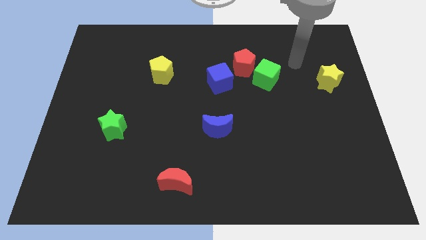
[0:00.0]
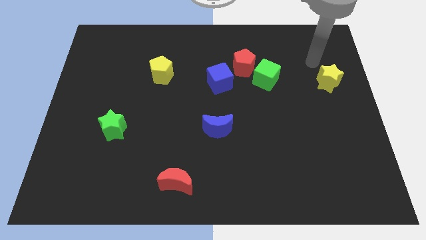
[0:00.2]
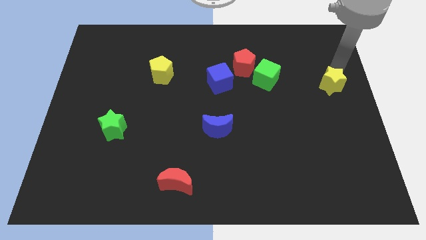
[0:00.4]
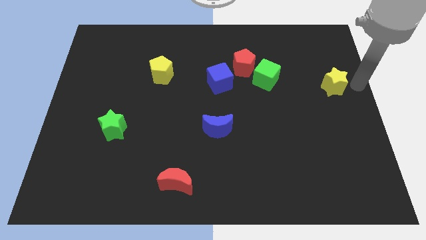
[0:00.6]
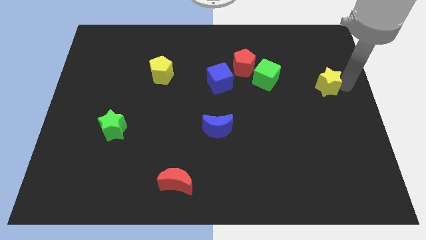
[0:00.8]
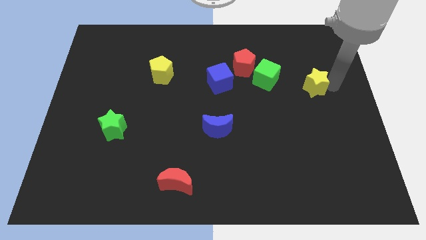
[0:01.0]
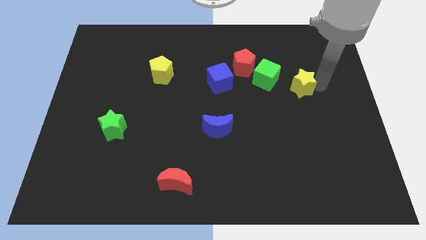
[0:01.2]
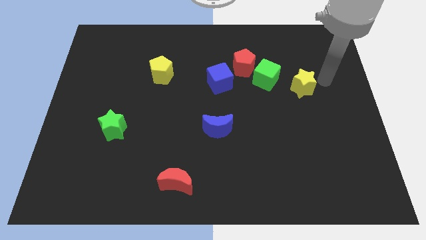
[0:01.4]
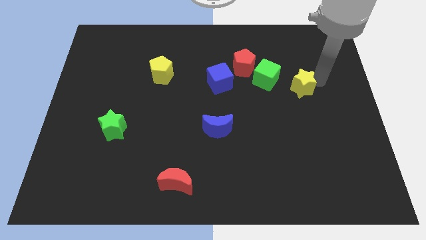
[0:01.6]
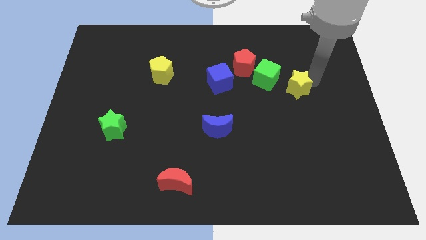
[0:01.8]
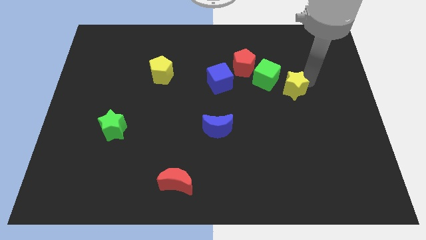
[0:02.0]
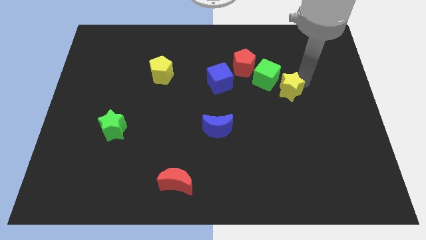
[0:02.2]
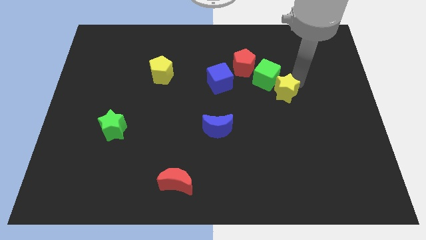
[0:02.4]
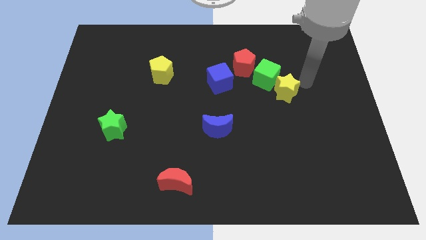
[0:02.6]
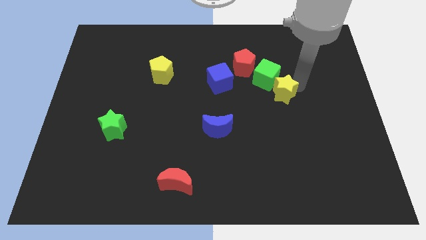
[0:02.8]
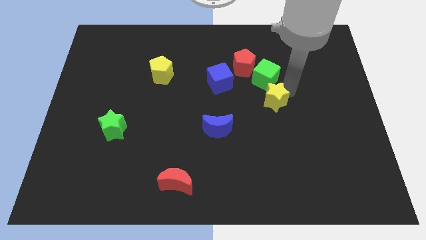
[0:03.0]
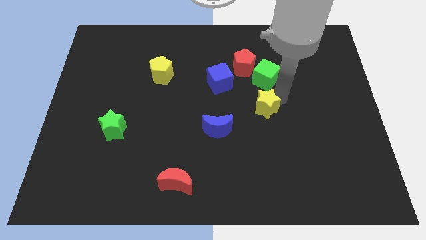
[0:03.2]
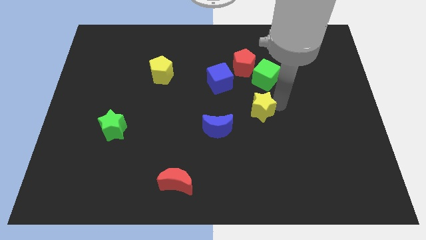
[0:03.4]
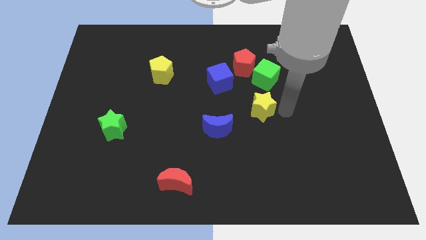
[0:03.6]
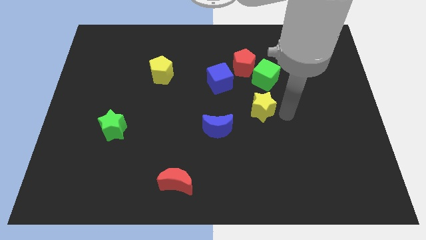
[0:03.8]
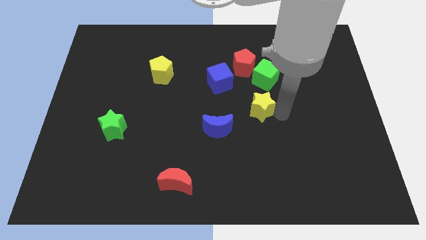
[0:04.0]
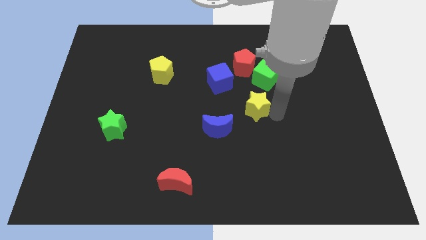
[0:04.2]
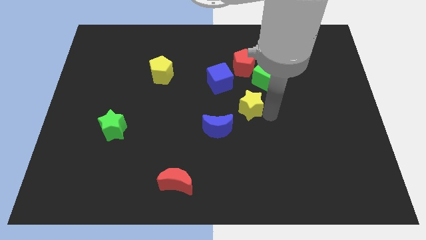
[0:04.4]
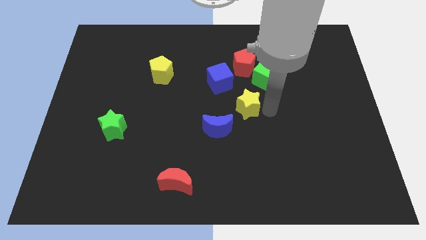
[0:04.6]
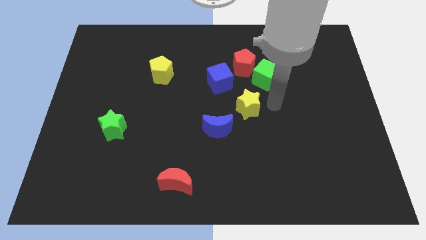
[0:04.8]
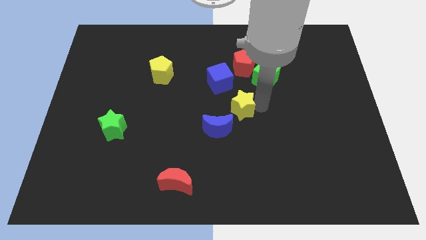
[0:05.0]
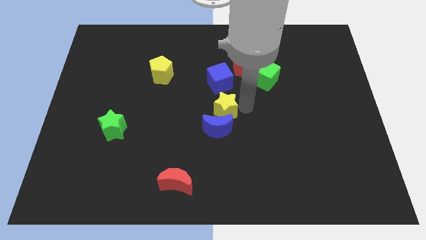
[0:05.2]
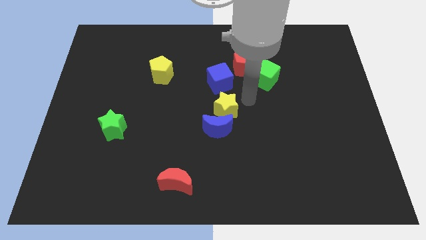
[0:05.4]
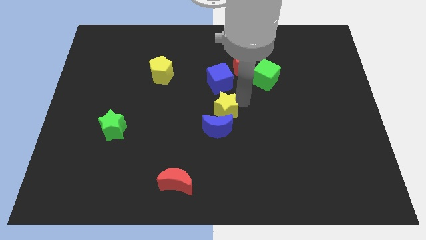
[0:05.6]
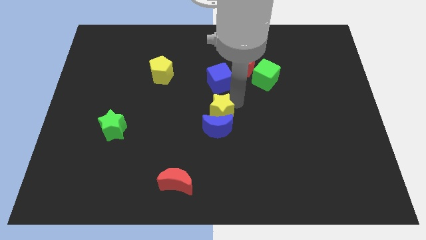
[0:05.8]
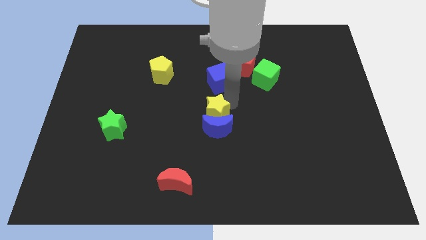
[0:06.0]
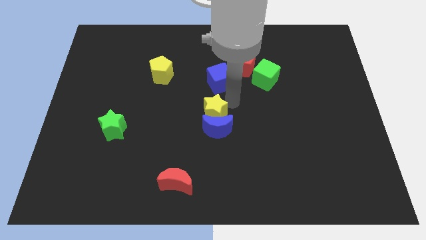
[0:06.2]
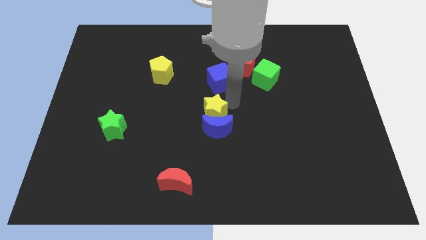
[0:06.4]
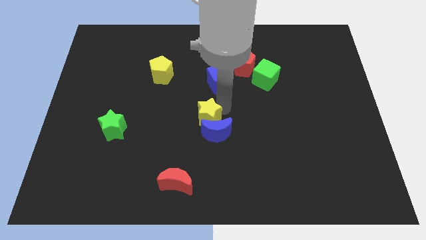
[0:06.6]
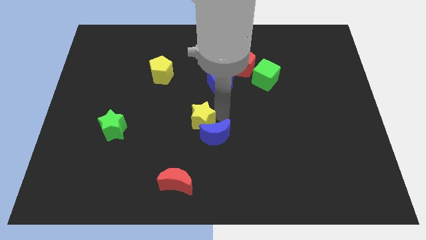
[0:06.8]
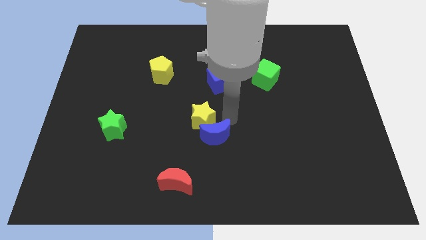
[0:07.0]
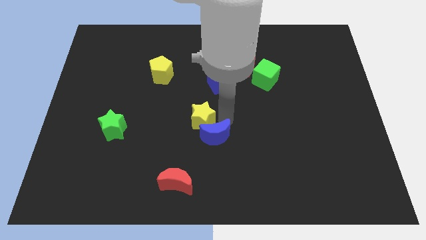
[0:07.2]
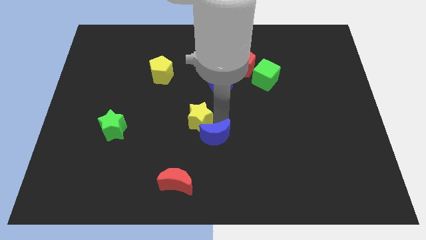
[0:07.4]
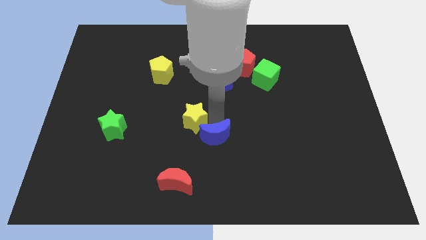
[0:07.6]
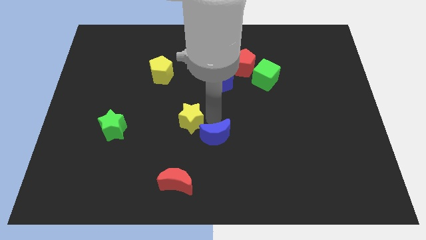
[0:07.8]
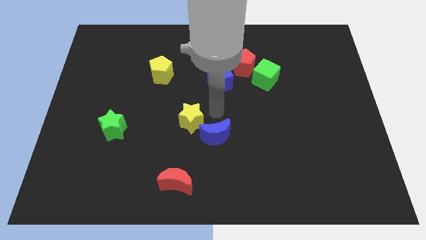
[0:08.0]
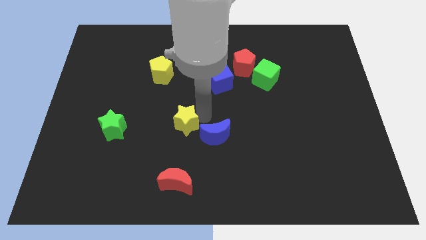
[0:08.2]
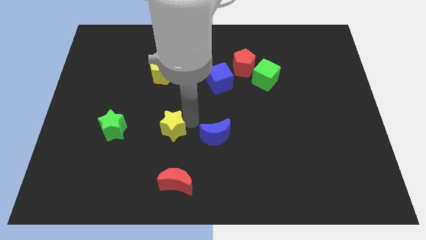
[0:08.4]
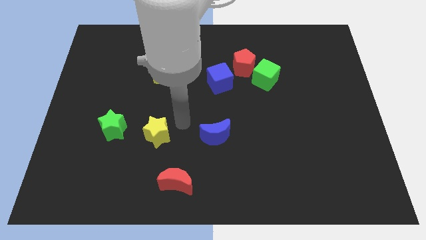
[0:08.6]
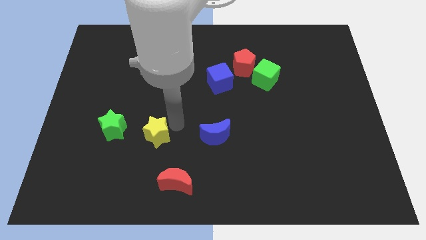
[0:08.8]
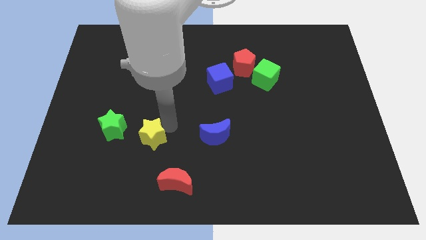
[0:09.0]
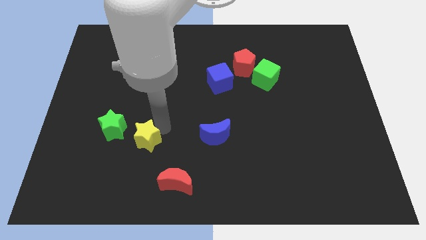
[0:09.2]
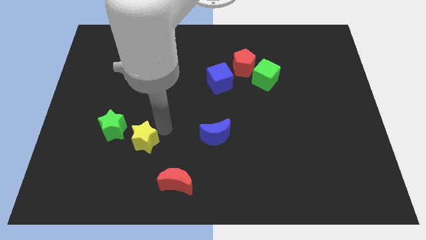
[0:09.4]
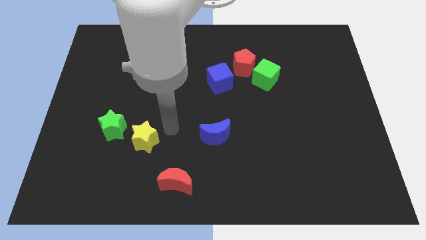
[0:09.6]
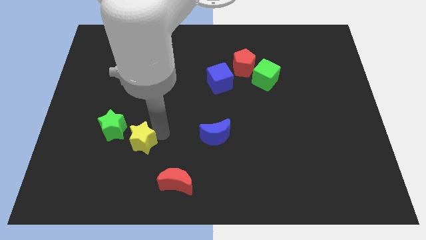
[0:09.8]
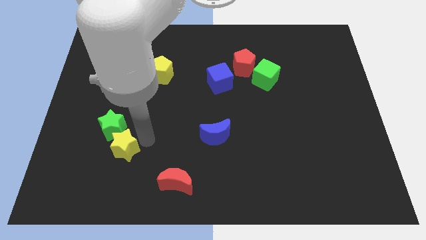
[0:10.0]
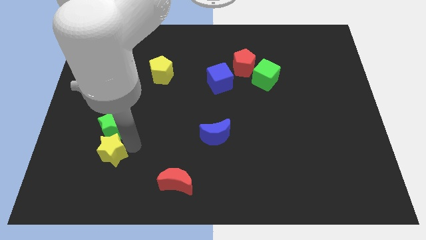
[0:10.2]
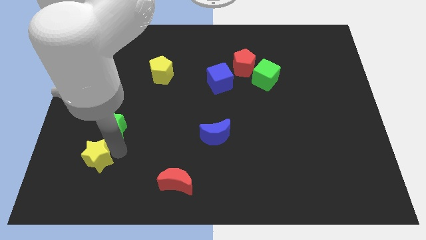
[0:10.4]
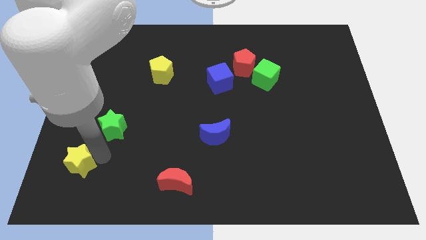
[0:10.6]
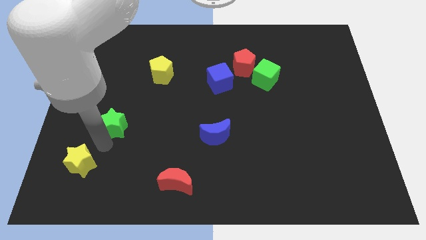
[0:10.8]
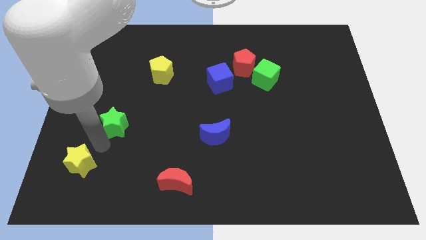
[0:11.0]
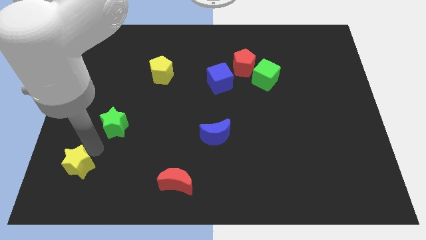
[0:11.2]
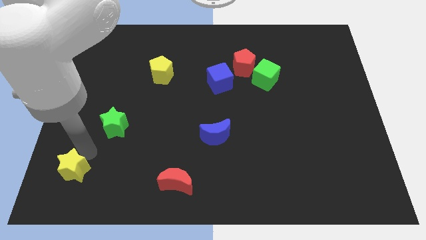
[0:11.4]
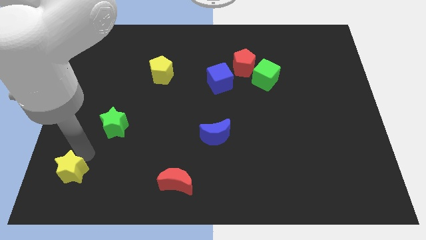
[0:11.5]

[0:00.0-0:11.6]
move the yellow star to the bottom left of the board
